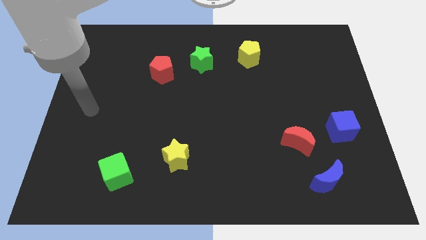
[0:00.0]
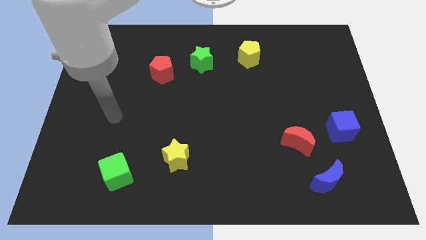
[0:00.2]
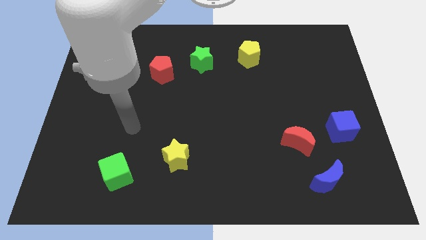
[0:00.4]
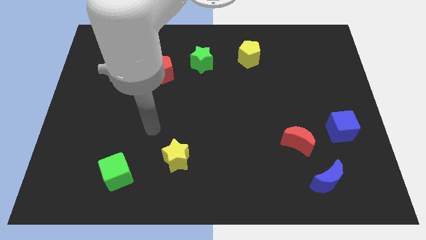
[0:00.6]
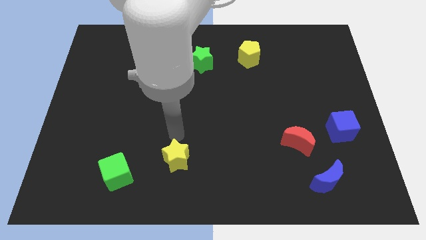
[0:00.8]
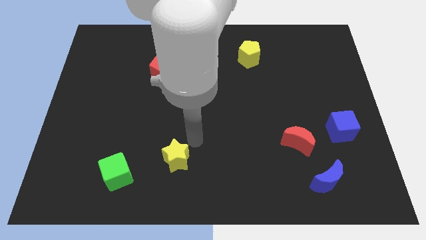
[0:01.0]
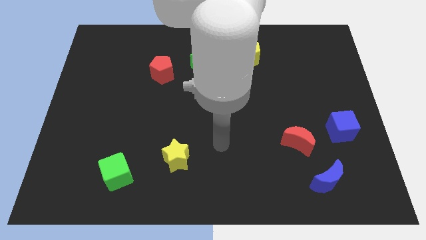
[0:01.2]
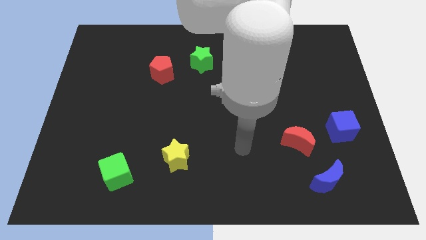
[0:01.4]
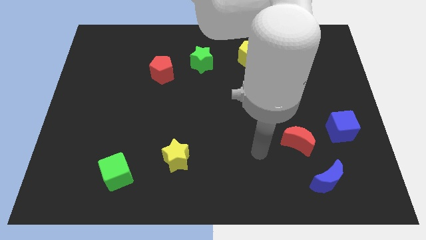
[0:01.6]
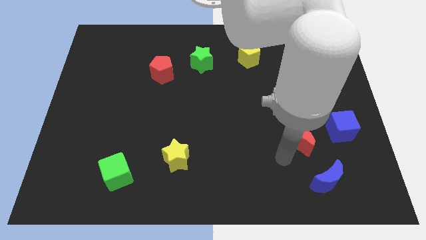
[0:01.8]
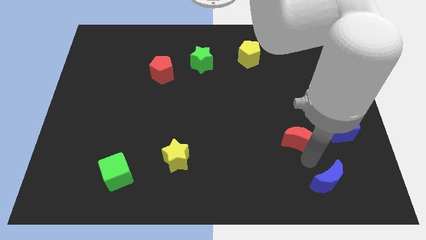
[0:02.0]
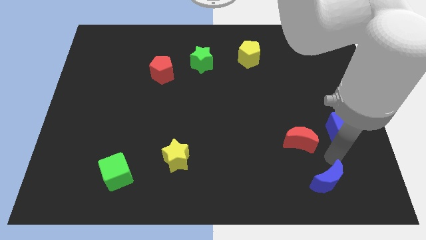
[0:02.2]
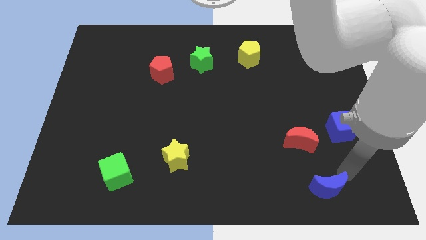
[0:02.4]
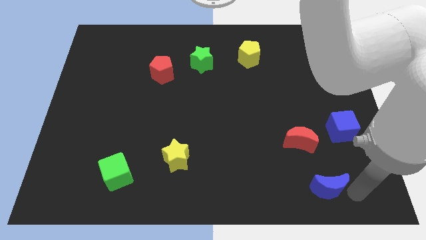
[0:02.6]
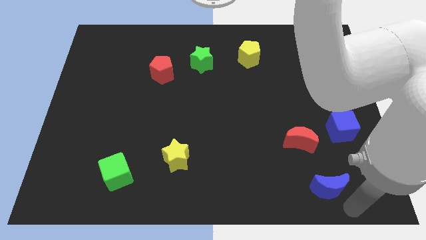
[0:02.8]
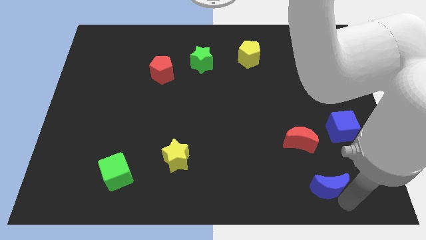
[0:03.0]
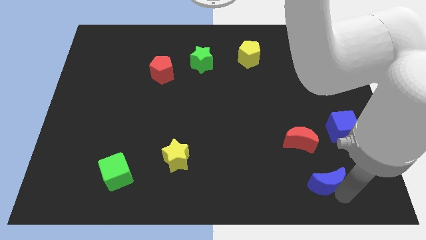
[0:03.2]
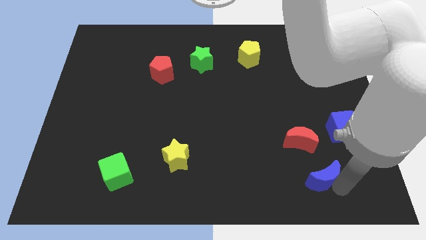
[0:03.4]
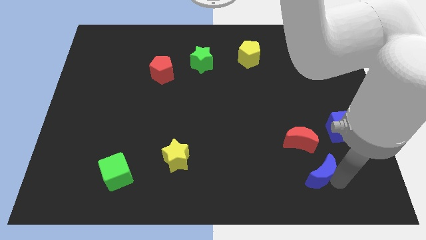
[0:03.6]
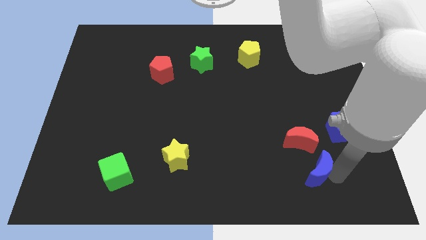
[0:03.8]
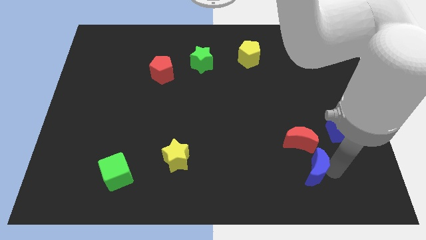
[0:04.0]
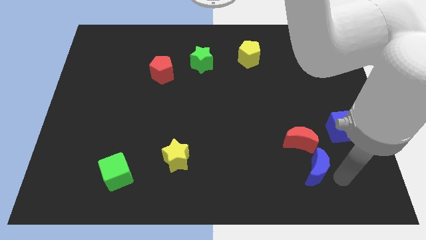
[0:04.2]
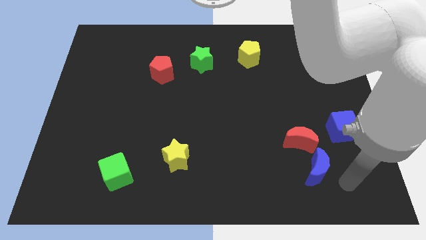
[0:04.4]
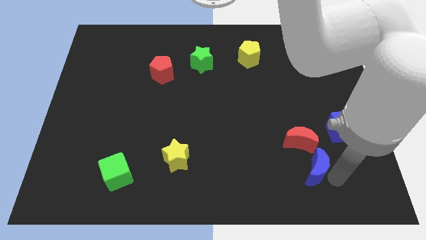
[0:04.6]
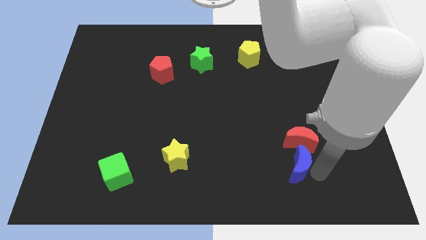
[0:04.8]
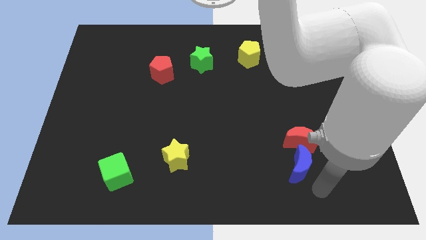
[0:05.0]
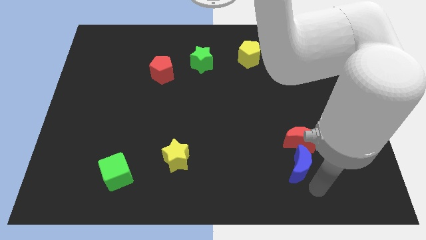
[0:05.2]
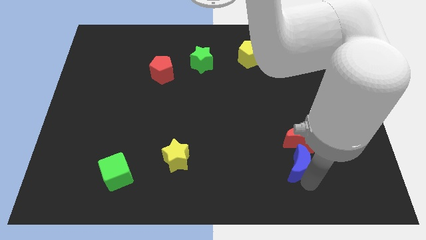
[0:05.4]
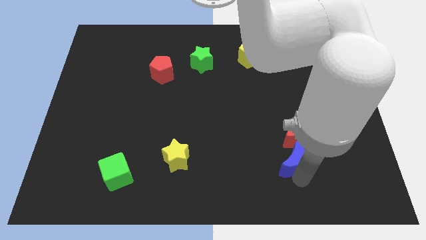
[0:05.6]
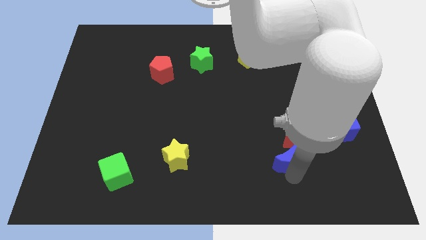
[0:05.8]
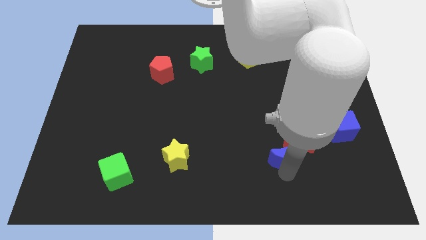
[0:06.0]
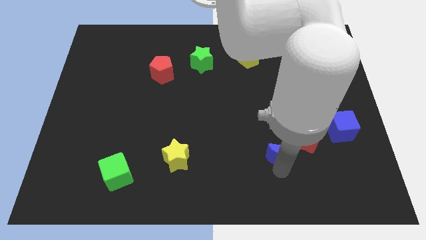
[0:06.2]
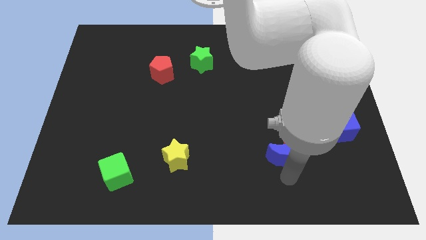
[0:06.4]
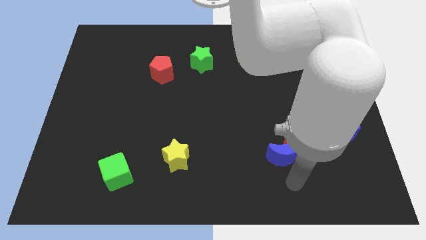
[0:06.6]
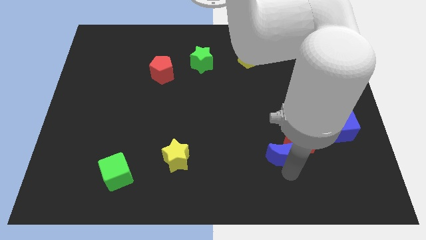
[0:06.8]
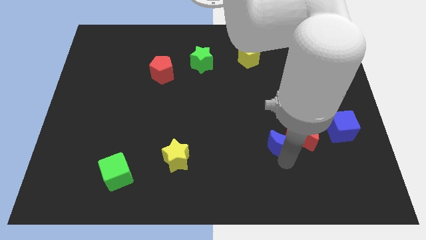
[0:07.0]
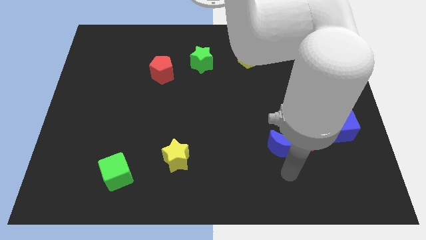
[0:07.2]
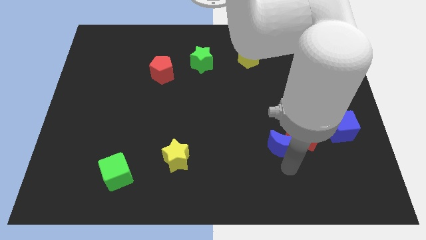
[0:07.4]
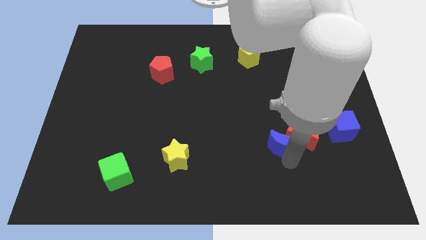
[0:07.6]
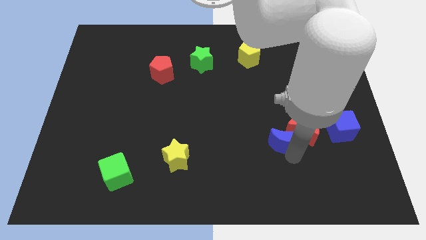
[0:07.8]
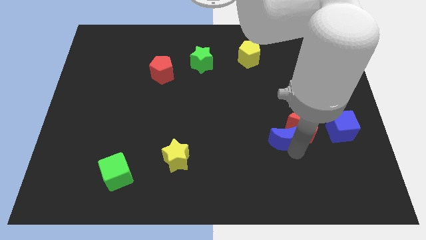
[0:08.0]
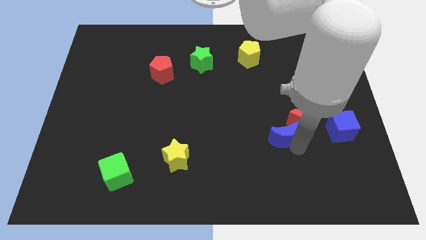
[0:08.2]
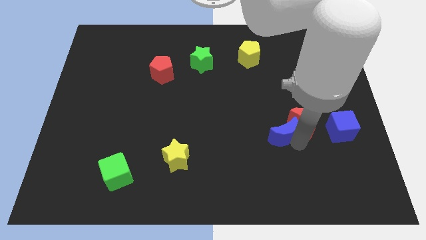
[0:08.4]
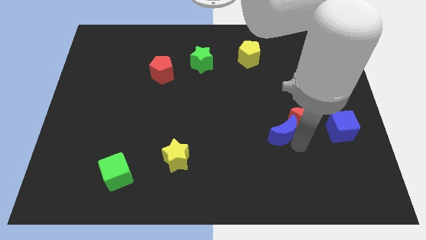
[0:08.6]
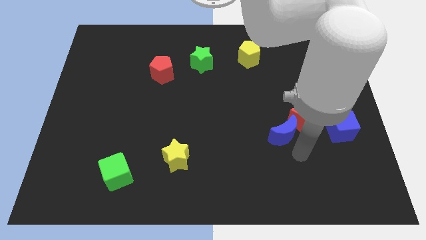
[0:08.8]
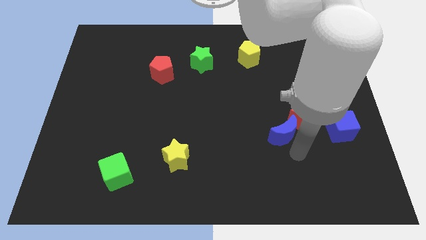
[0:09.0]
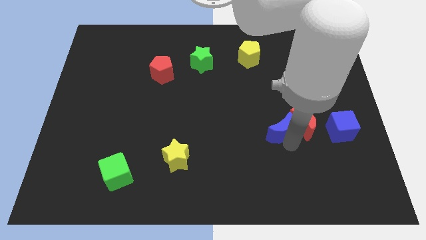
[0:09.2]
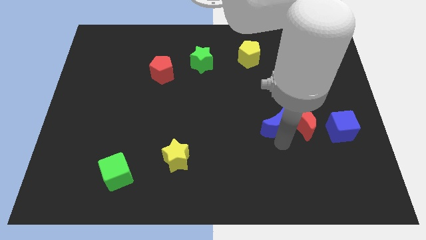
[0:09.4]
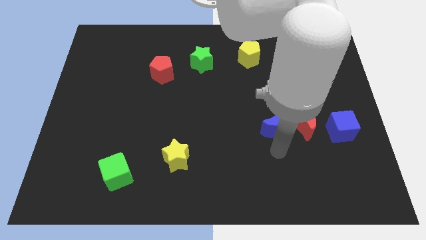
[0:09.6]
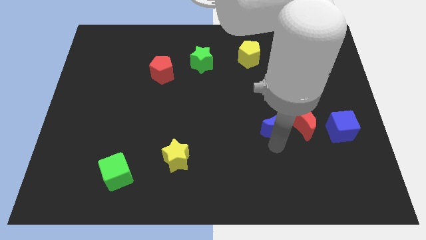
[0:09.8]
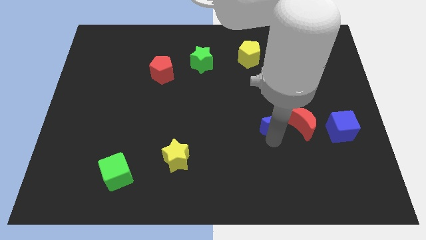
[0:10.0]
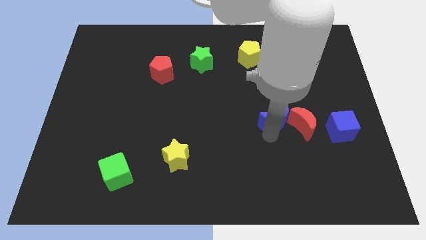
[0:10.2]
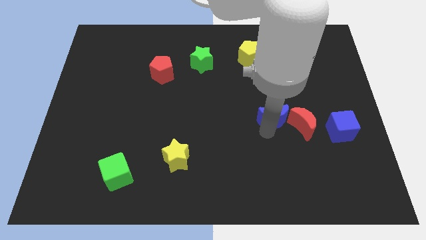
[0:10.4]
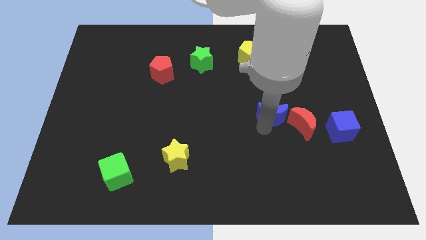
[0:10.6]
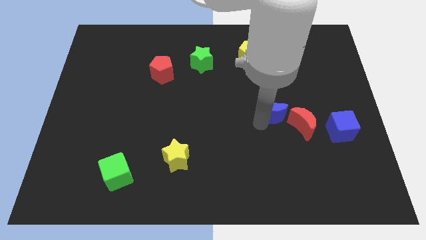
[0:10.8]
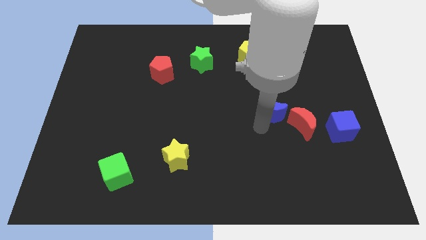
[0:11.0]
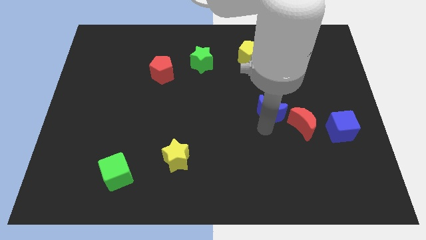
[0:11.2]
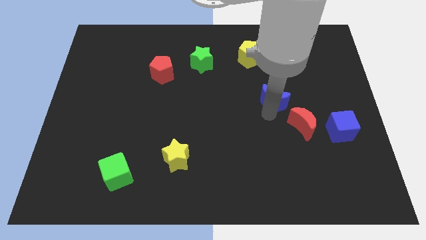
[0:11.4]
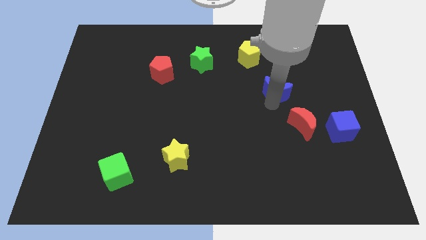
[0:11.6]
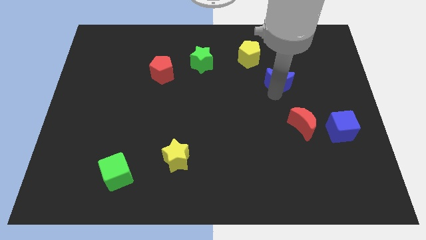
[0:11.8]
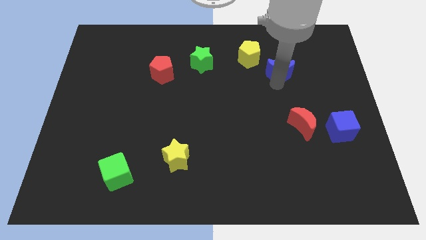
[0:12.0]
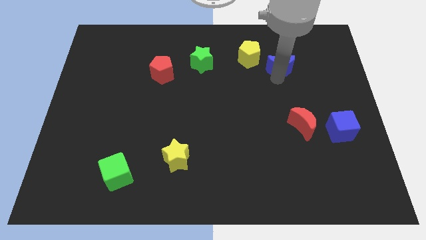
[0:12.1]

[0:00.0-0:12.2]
push the blue moon right of the yellow pentagon

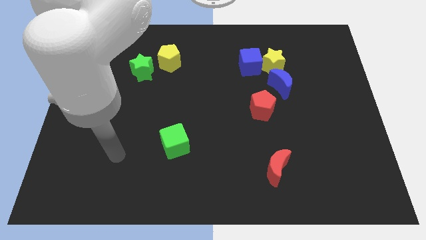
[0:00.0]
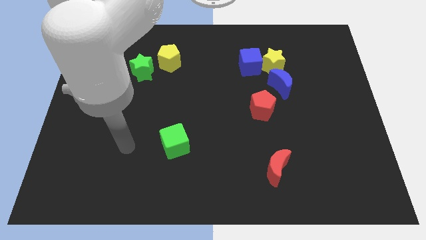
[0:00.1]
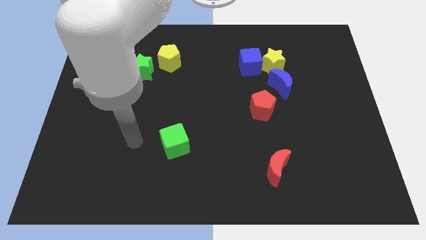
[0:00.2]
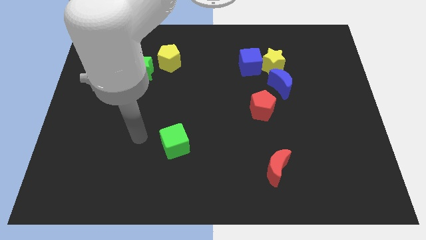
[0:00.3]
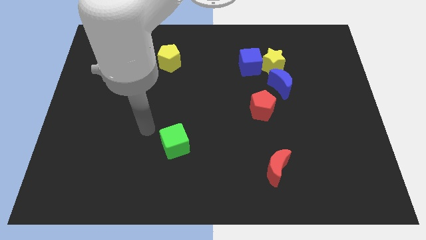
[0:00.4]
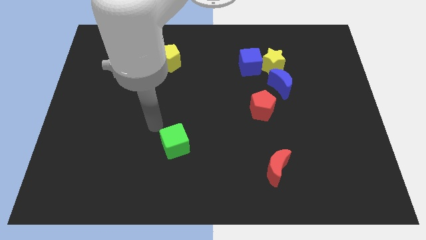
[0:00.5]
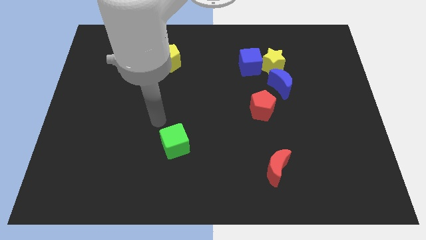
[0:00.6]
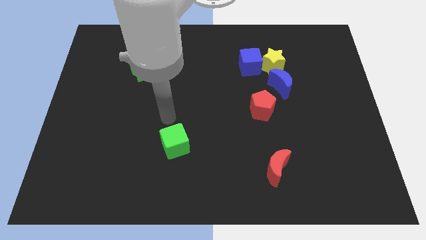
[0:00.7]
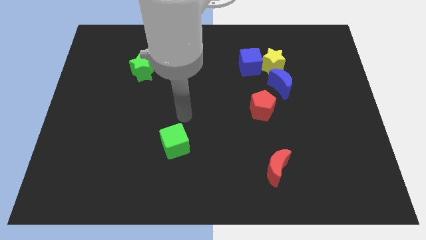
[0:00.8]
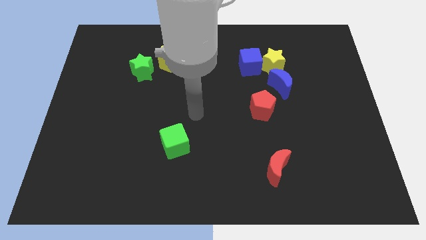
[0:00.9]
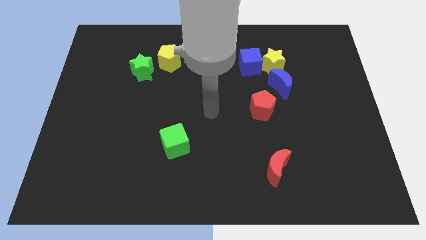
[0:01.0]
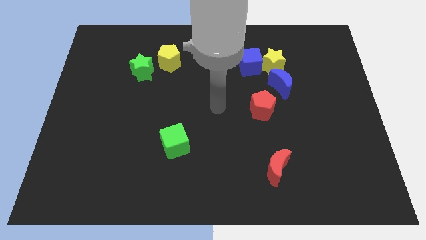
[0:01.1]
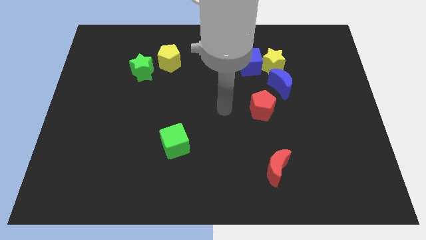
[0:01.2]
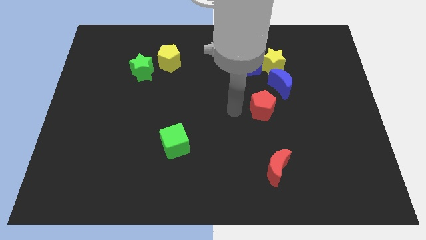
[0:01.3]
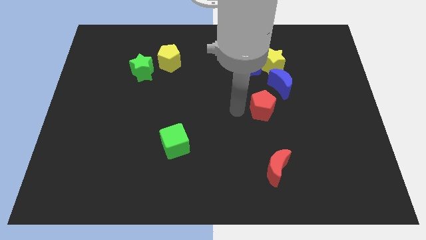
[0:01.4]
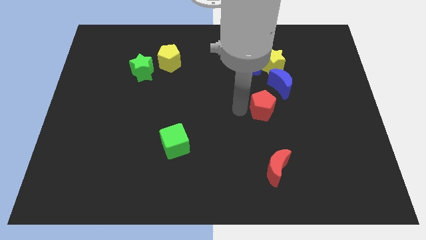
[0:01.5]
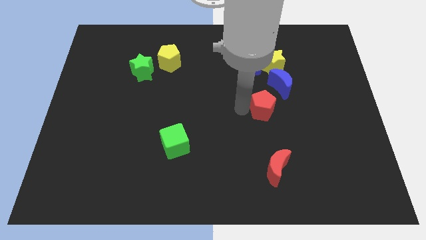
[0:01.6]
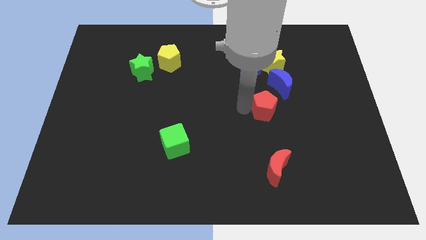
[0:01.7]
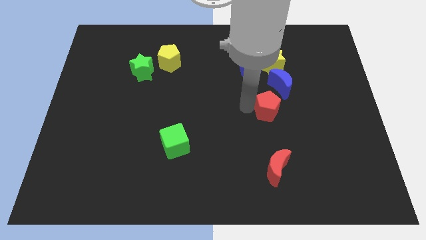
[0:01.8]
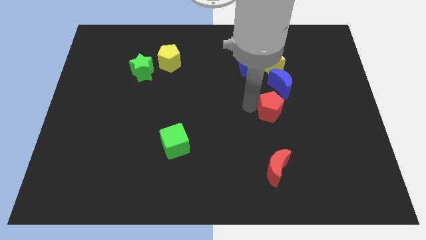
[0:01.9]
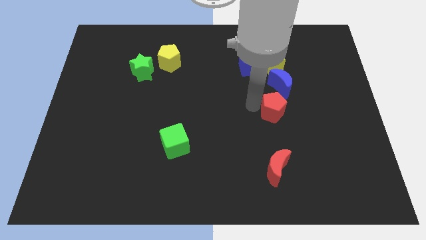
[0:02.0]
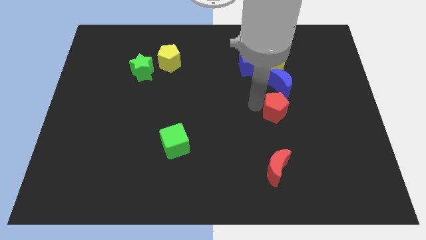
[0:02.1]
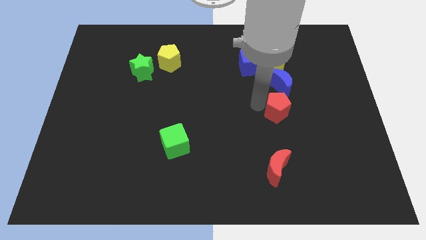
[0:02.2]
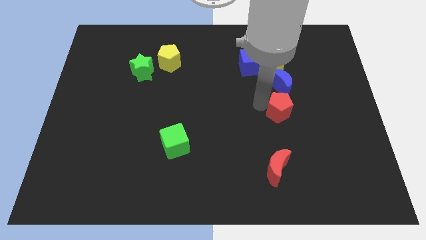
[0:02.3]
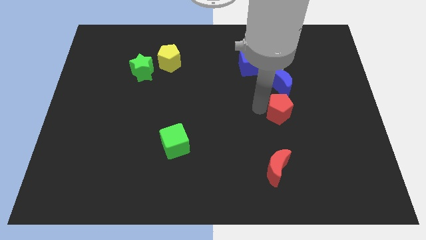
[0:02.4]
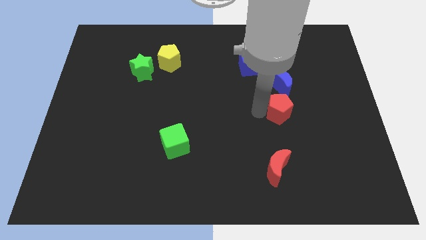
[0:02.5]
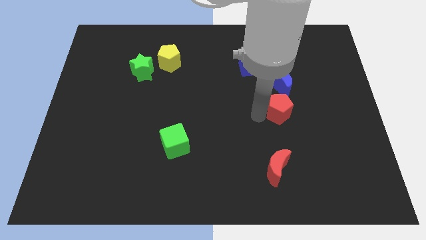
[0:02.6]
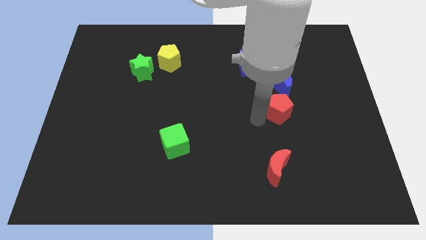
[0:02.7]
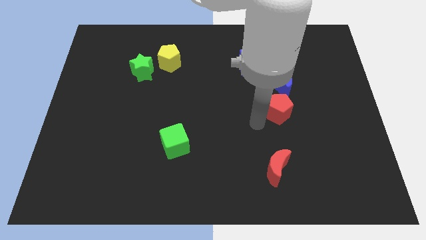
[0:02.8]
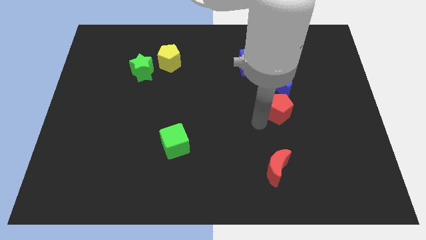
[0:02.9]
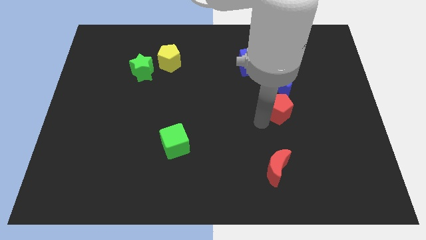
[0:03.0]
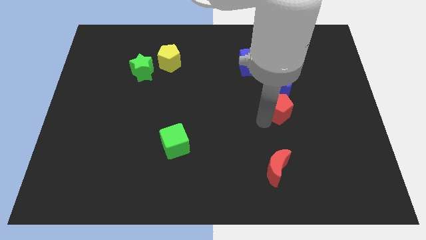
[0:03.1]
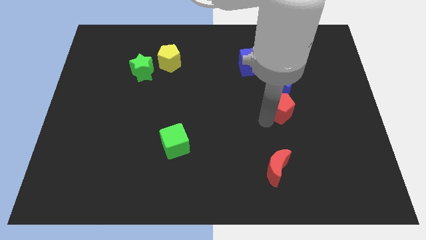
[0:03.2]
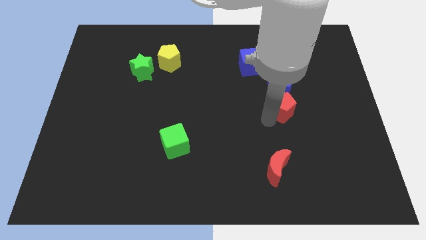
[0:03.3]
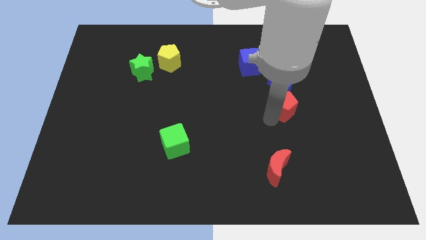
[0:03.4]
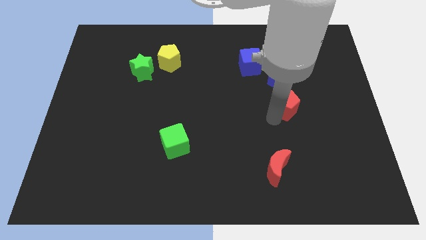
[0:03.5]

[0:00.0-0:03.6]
push the red pentagon to the bottom right side of the blue moon
